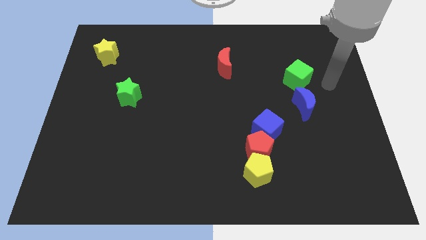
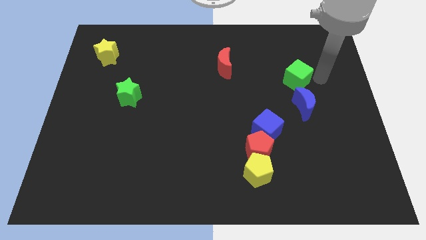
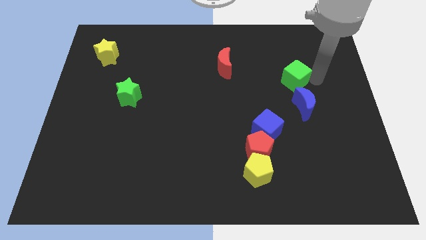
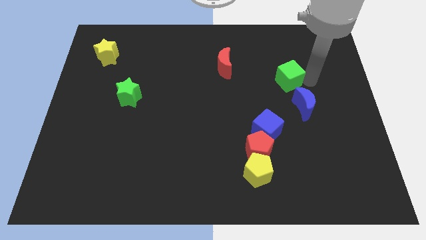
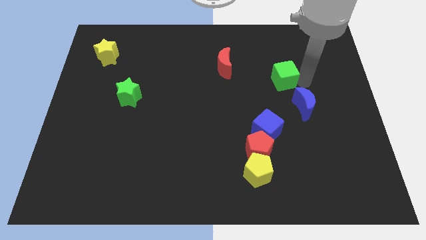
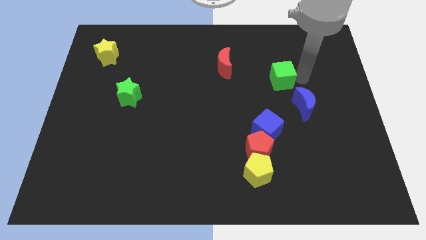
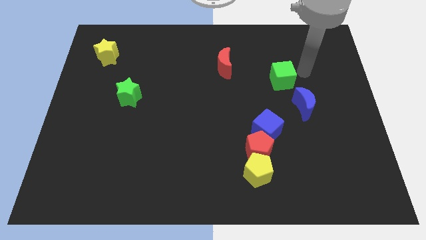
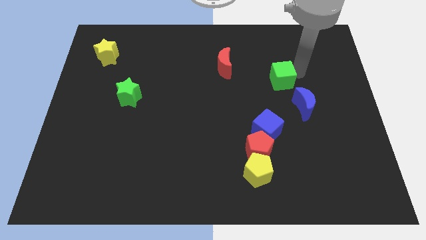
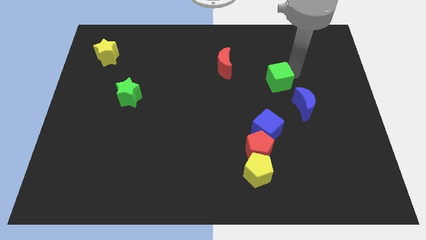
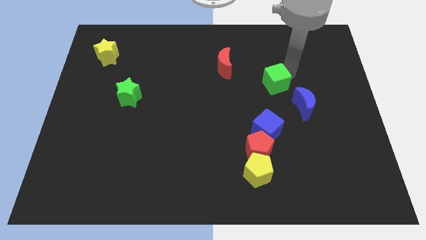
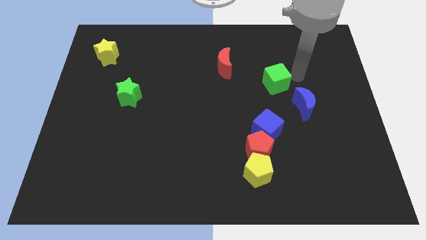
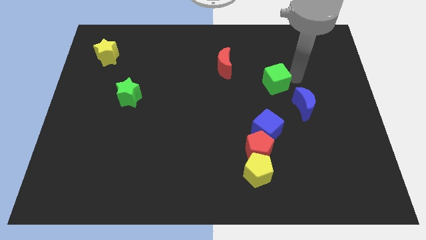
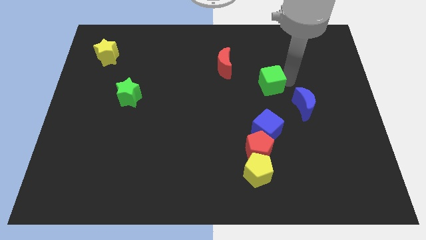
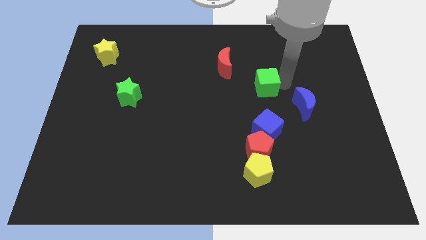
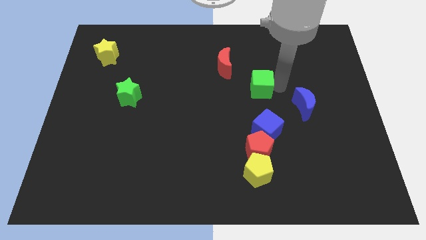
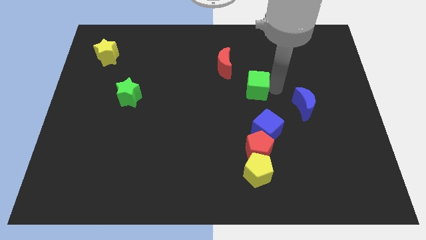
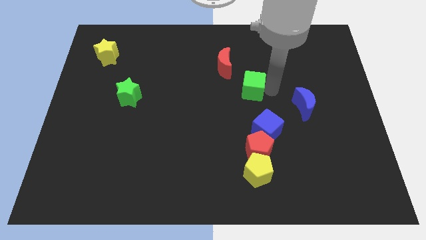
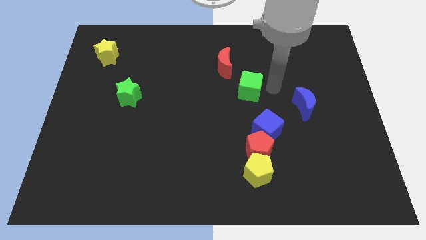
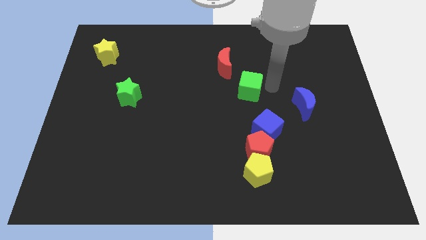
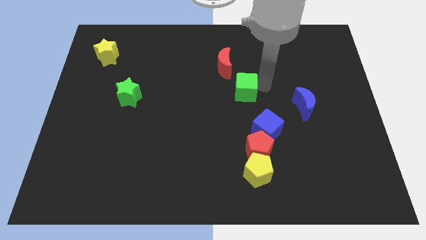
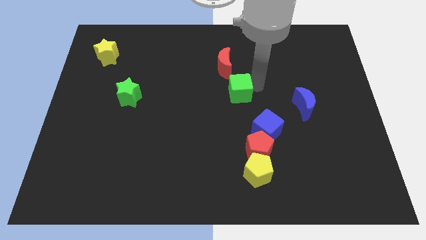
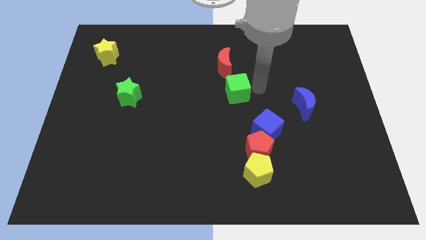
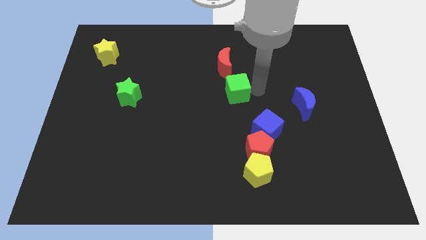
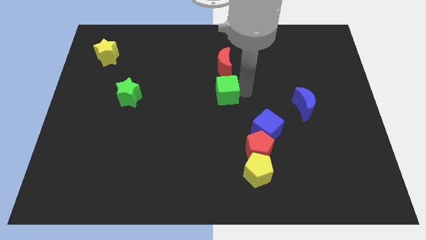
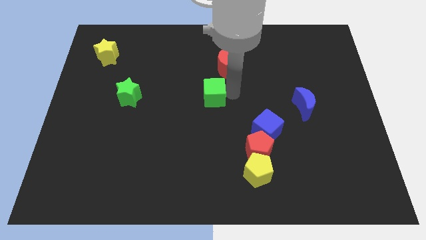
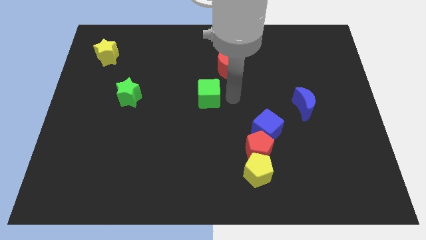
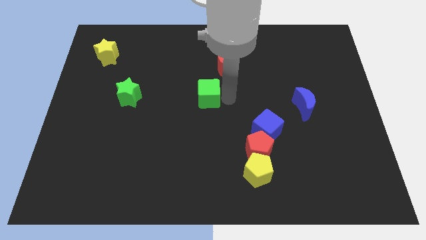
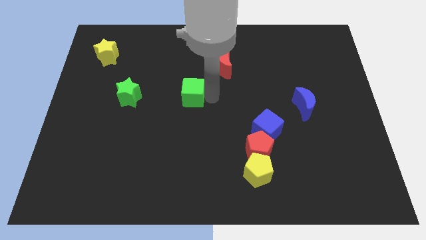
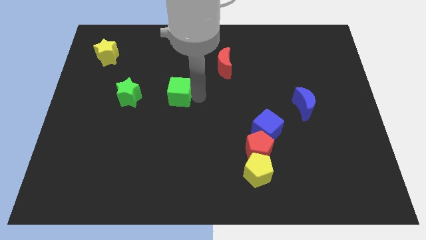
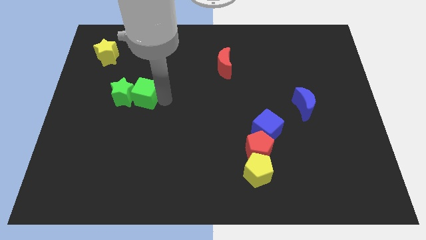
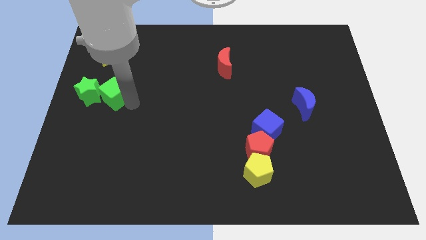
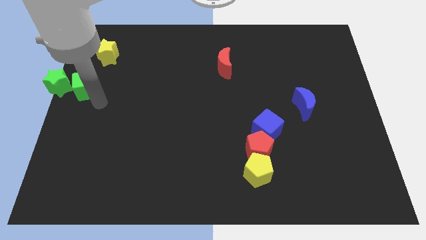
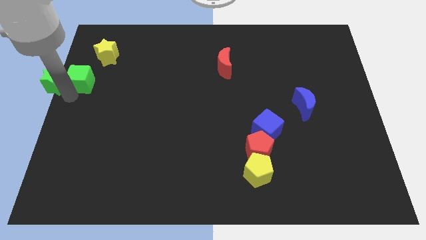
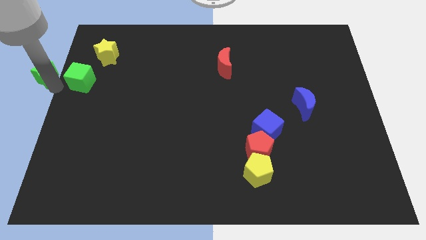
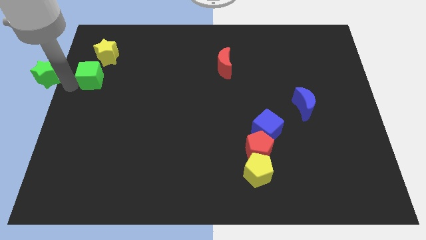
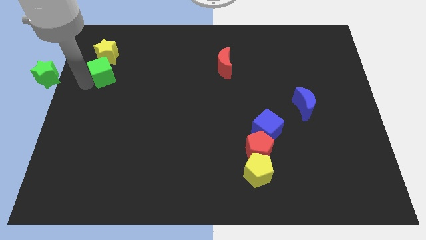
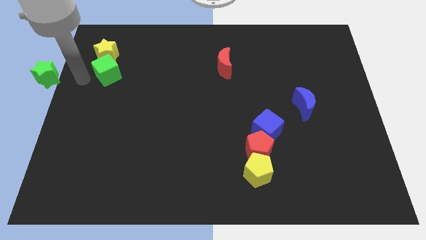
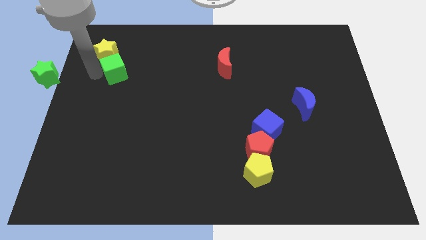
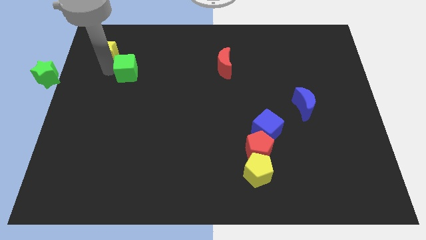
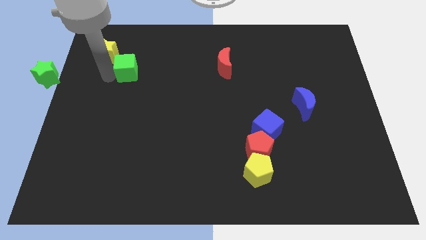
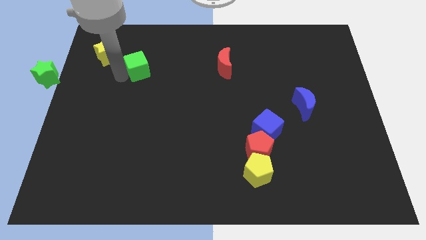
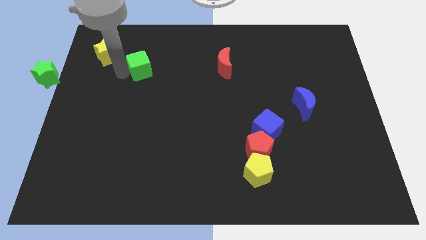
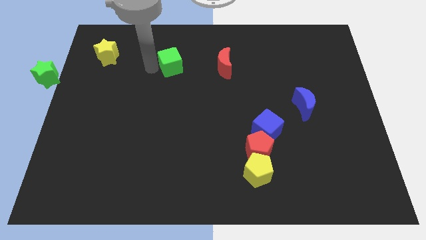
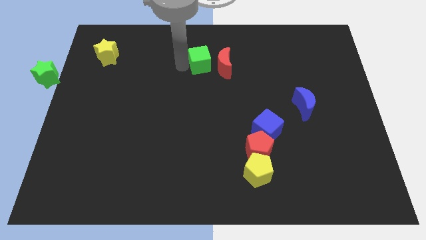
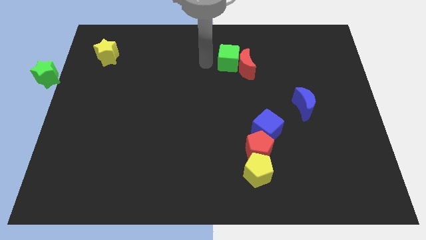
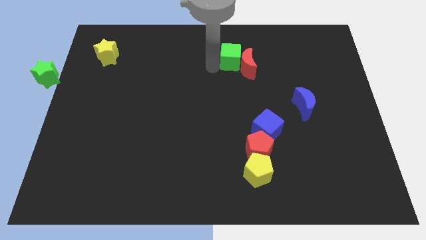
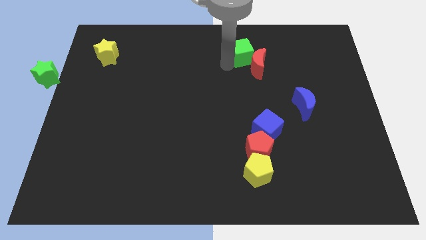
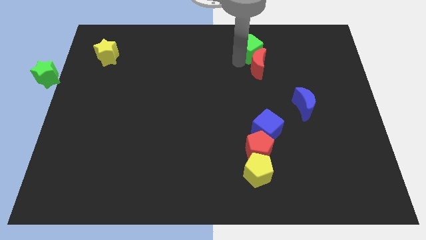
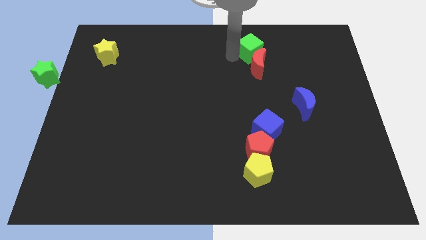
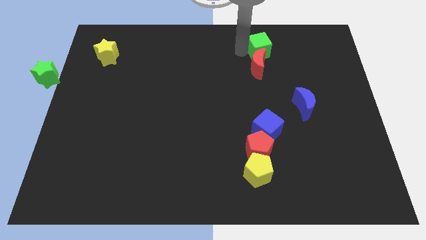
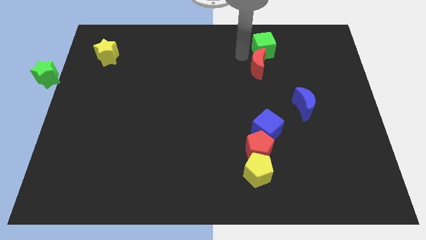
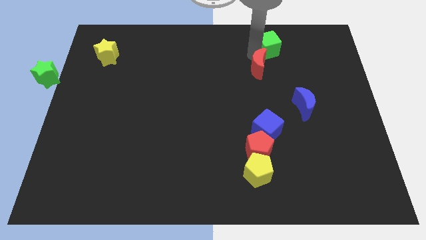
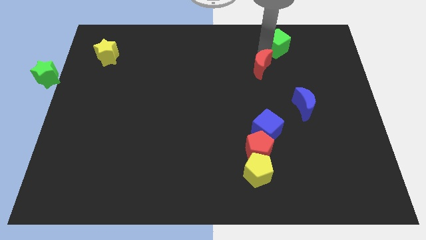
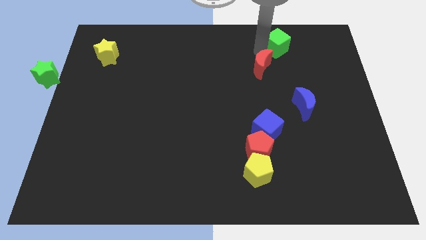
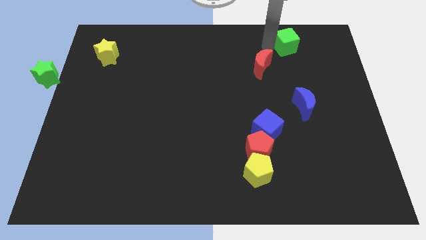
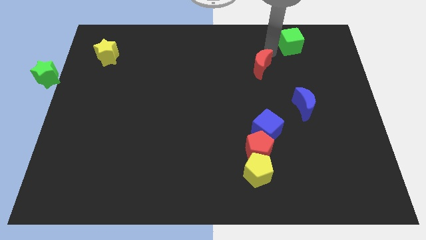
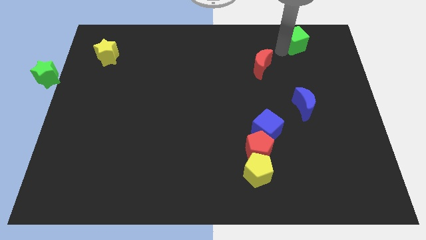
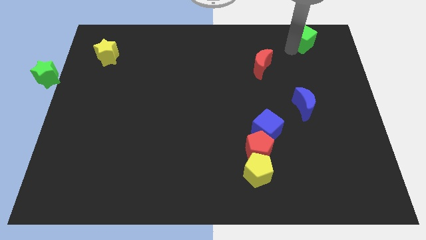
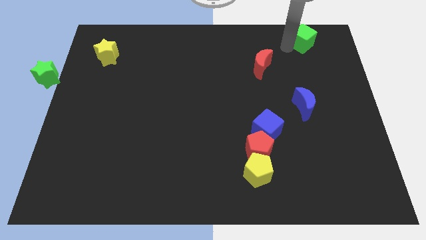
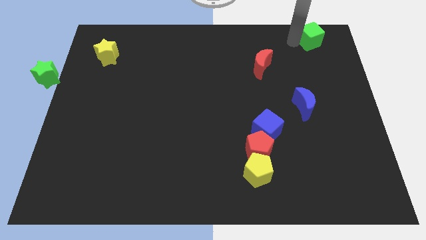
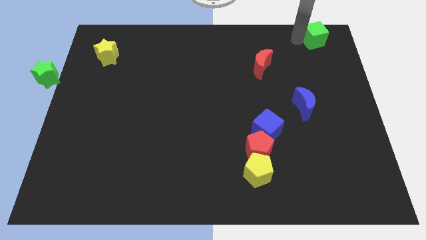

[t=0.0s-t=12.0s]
move the green cube to the top right

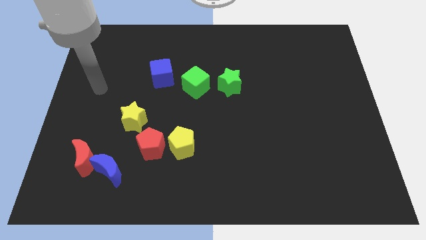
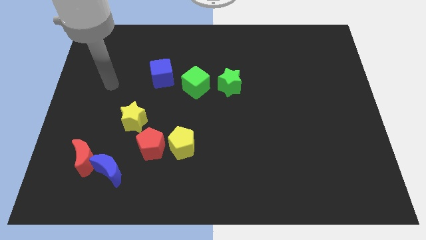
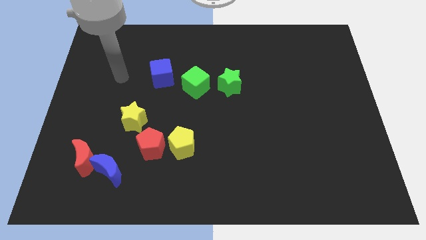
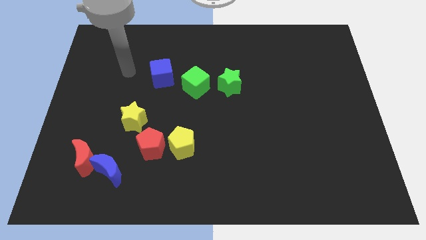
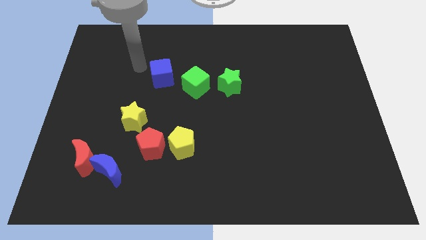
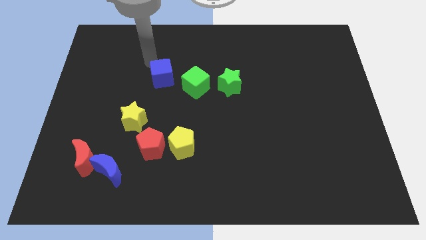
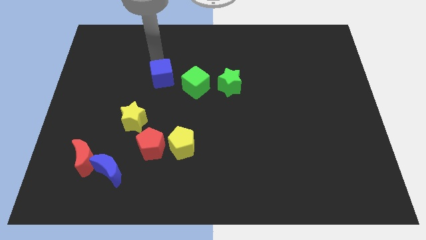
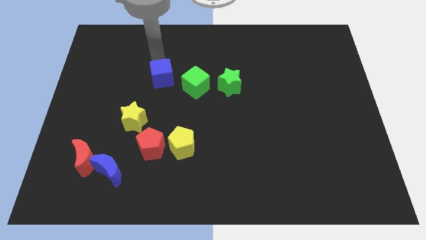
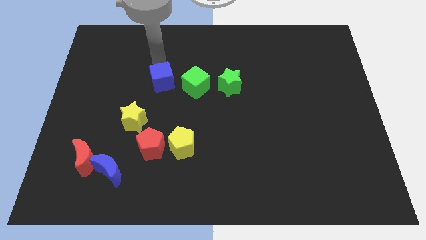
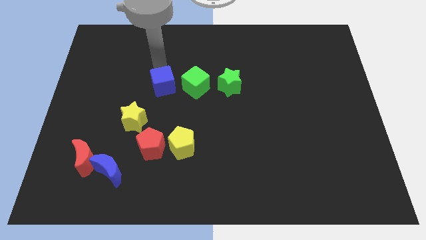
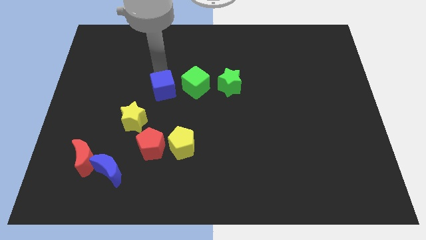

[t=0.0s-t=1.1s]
slide the blue cube to the middle of the board
